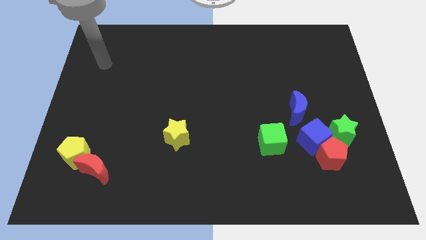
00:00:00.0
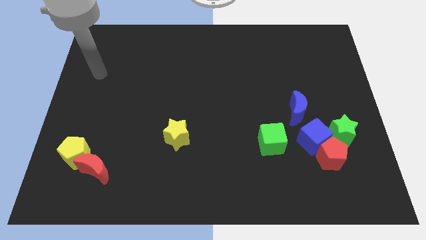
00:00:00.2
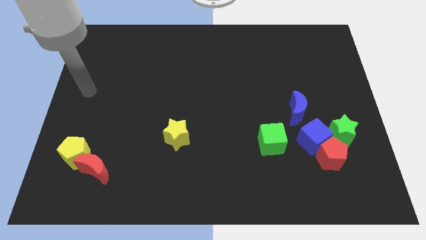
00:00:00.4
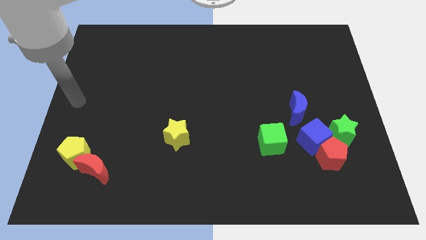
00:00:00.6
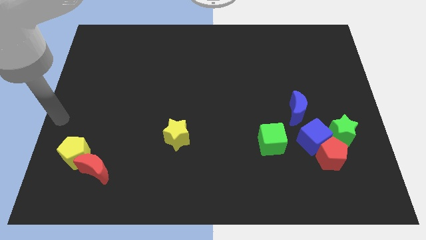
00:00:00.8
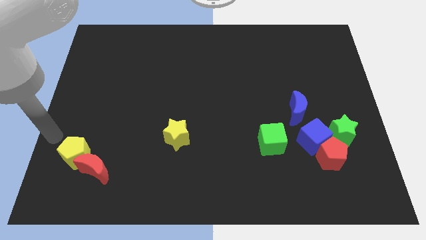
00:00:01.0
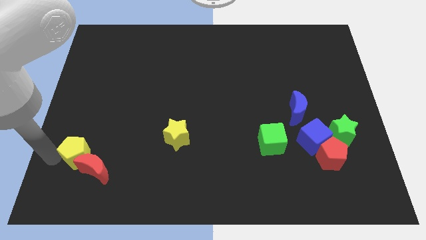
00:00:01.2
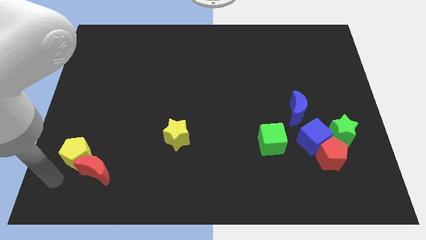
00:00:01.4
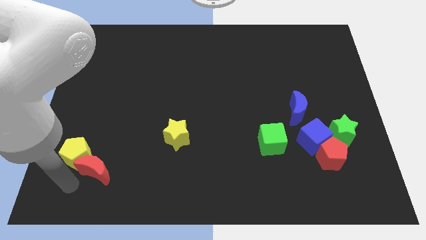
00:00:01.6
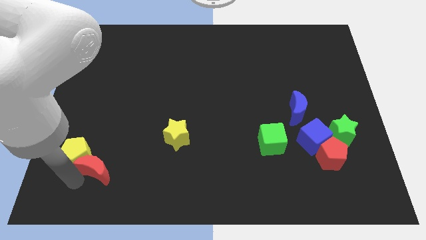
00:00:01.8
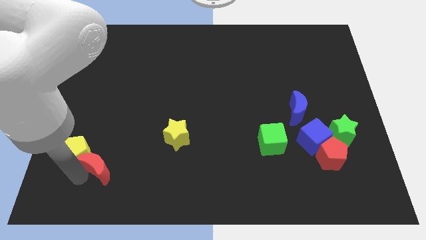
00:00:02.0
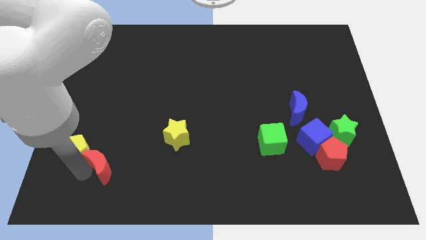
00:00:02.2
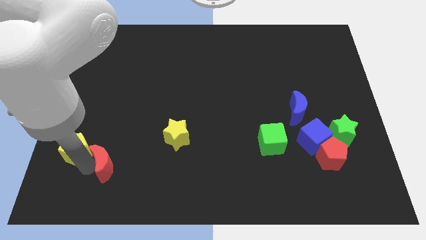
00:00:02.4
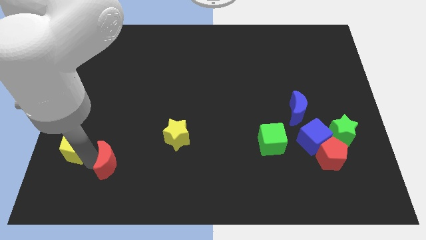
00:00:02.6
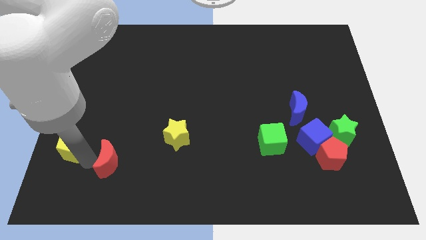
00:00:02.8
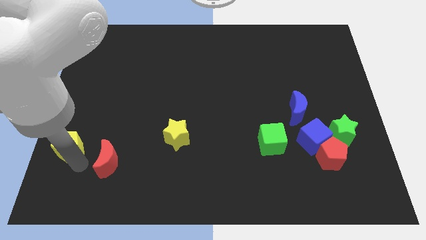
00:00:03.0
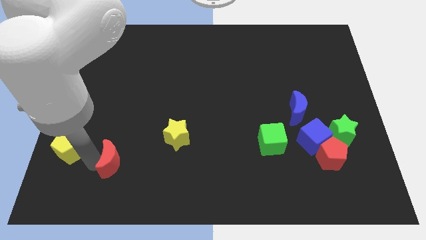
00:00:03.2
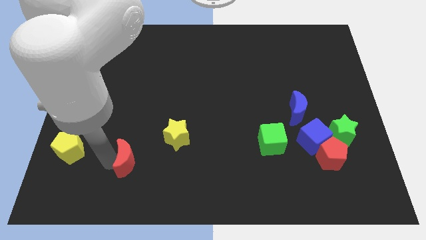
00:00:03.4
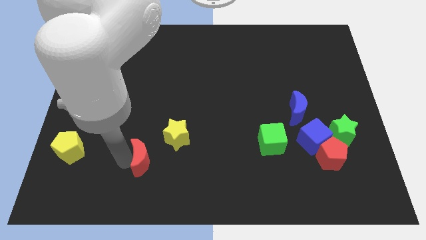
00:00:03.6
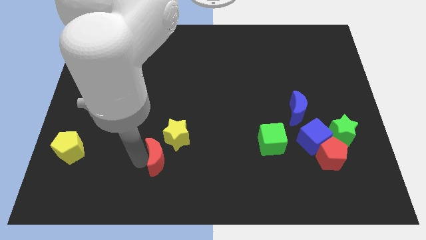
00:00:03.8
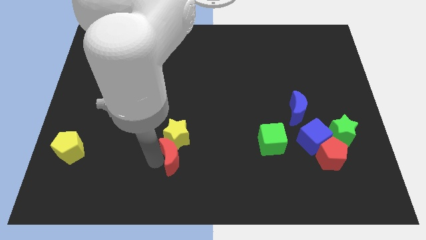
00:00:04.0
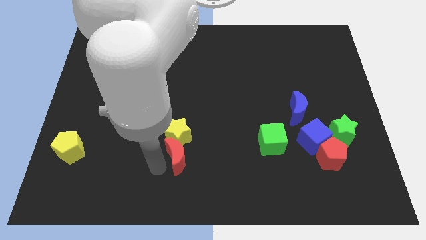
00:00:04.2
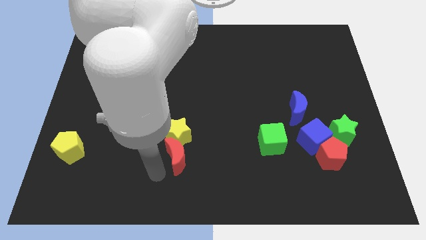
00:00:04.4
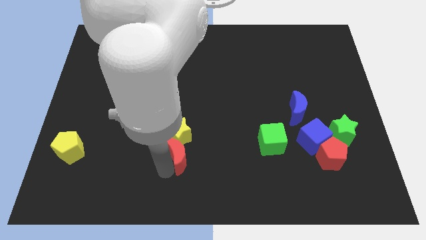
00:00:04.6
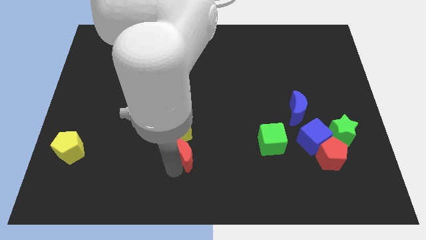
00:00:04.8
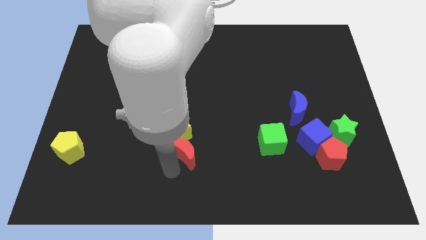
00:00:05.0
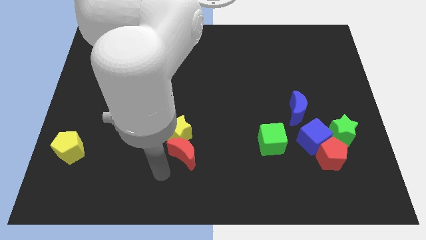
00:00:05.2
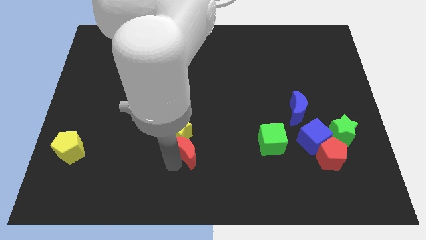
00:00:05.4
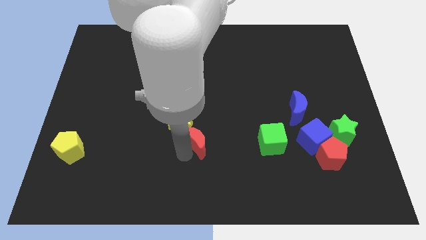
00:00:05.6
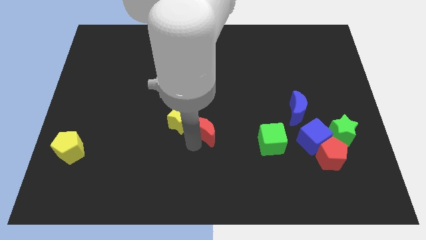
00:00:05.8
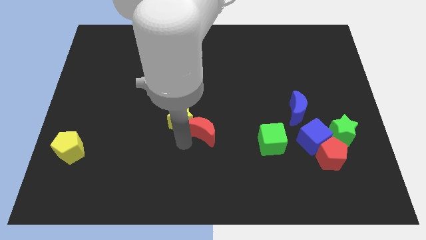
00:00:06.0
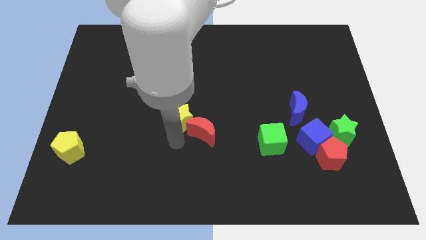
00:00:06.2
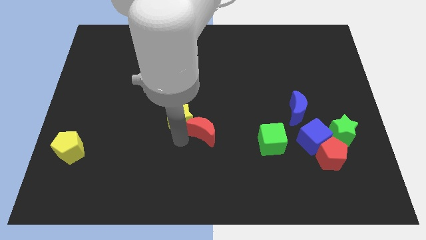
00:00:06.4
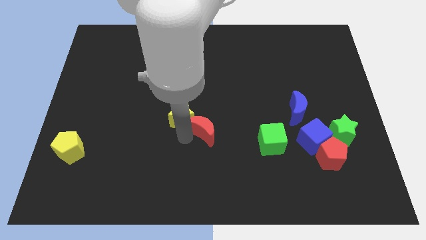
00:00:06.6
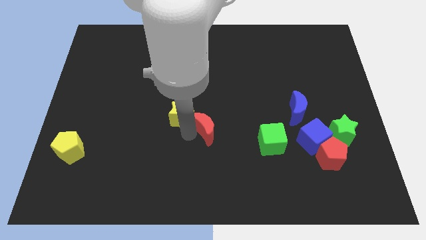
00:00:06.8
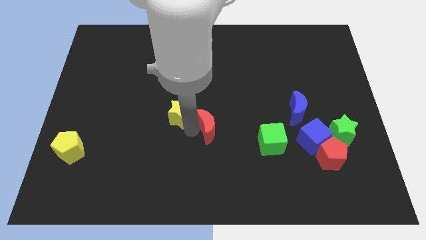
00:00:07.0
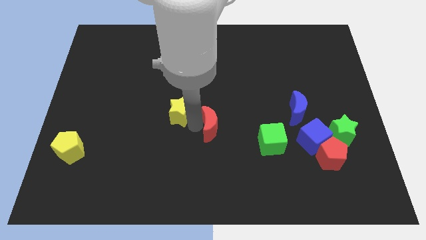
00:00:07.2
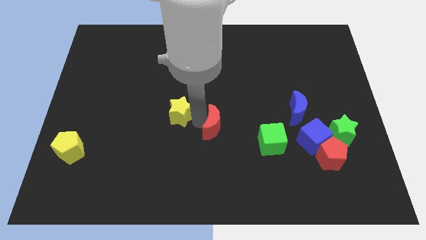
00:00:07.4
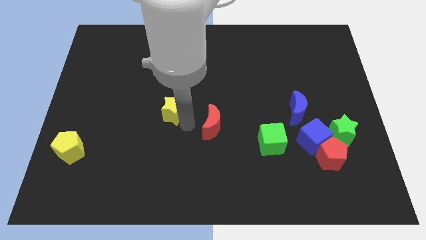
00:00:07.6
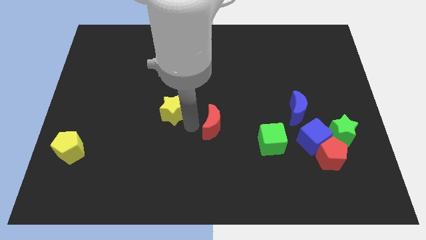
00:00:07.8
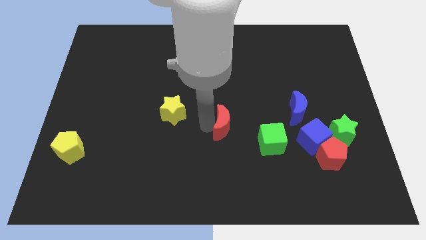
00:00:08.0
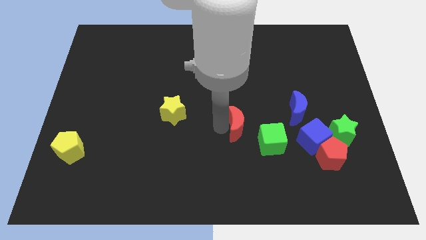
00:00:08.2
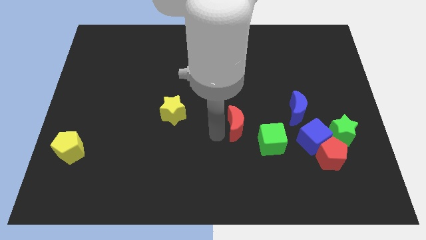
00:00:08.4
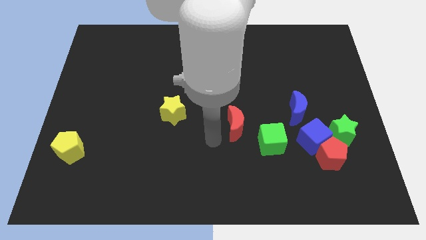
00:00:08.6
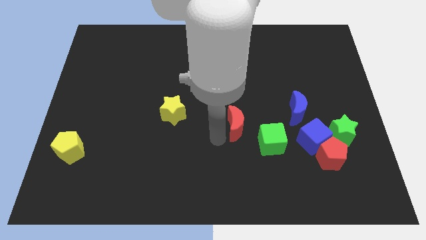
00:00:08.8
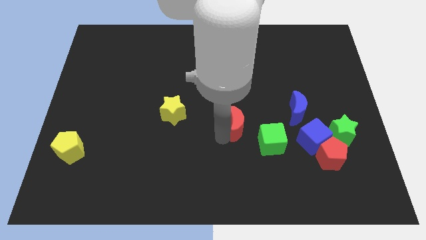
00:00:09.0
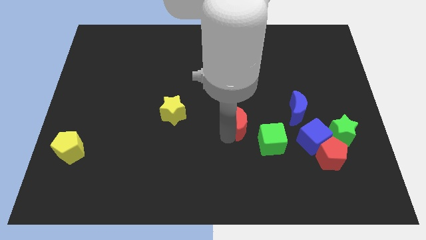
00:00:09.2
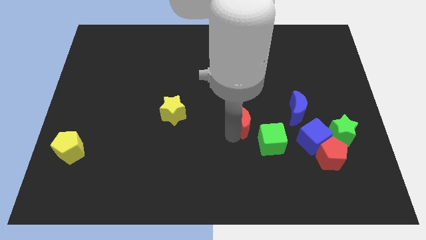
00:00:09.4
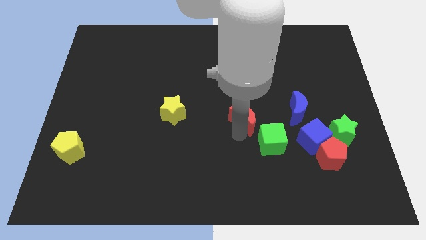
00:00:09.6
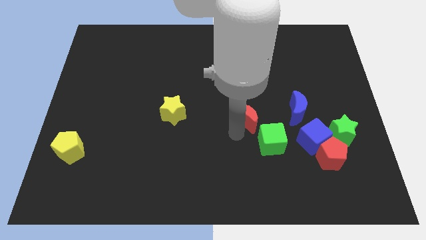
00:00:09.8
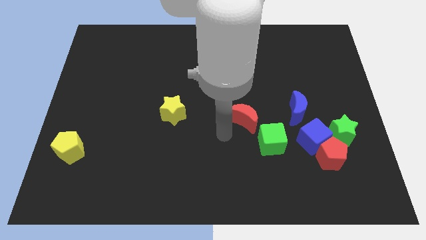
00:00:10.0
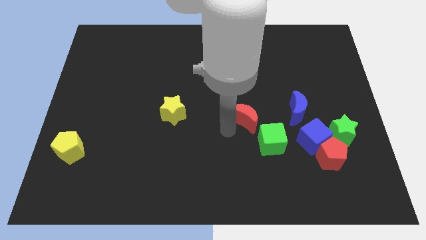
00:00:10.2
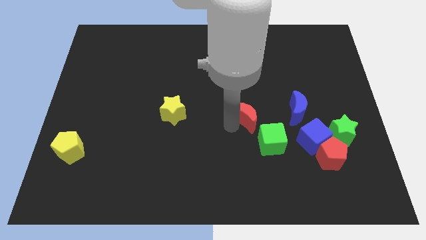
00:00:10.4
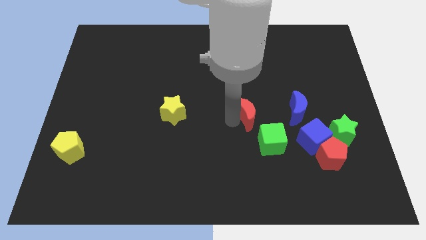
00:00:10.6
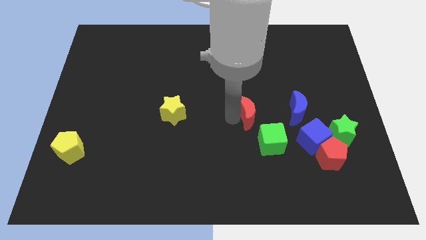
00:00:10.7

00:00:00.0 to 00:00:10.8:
push the red moon to the top side of the green cube
